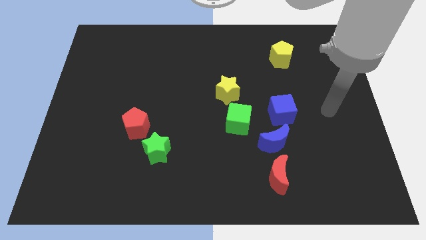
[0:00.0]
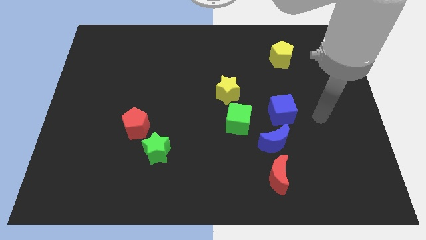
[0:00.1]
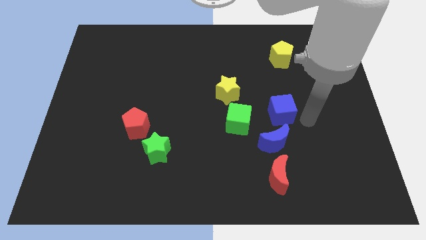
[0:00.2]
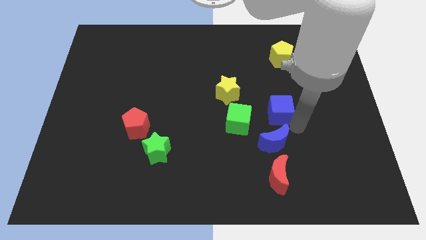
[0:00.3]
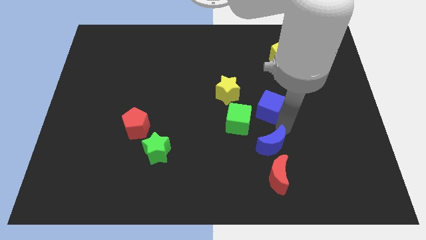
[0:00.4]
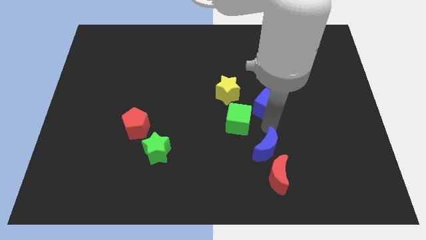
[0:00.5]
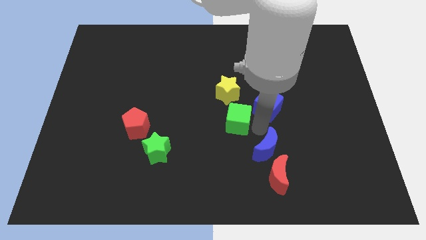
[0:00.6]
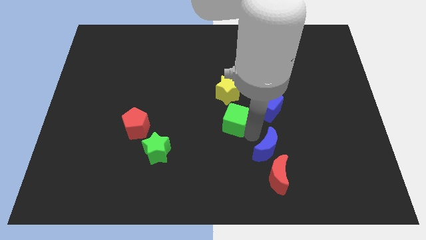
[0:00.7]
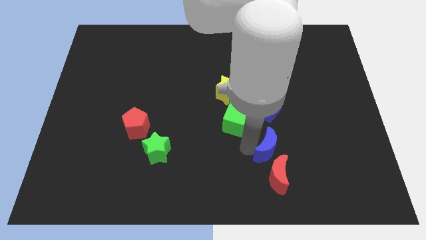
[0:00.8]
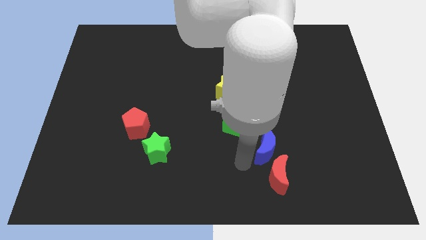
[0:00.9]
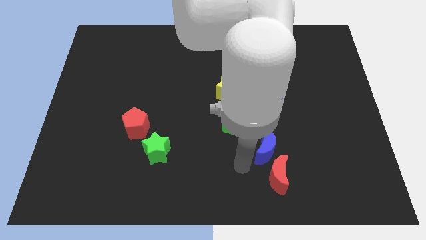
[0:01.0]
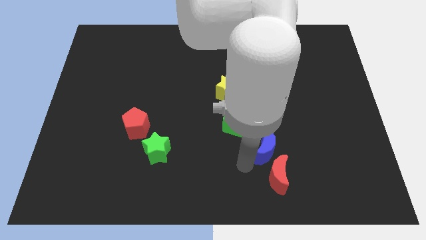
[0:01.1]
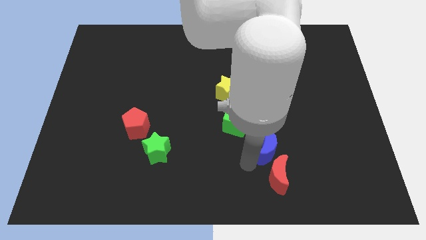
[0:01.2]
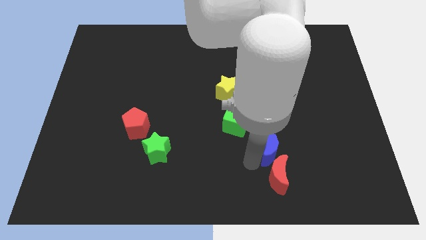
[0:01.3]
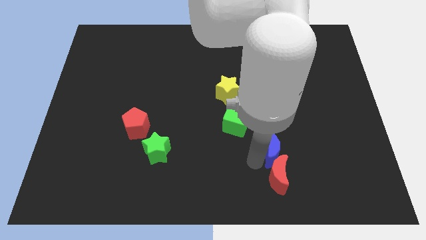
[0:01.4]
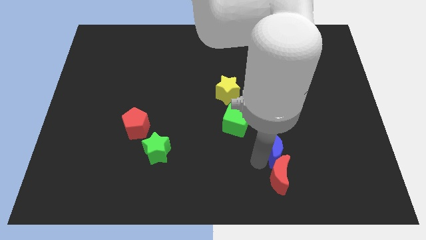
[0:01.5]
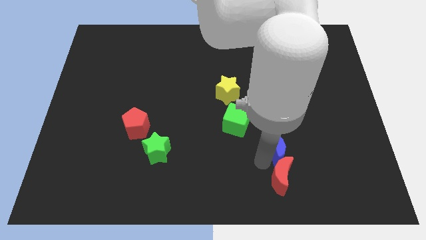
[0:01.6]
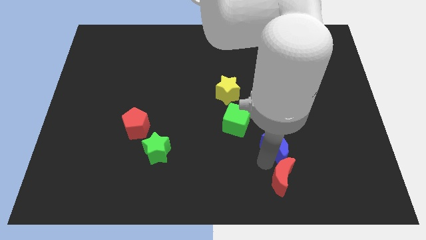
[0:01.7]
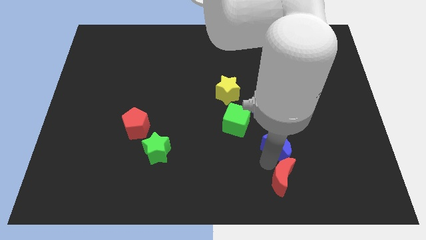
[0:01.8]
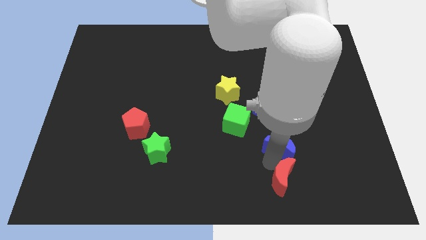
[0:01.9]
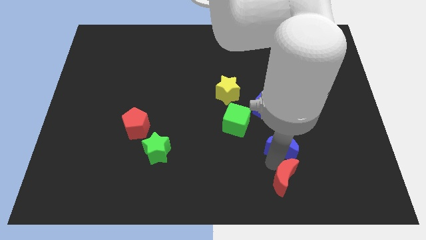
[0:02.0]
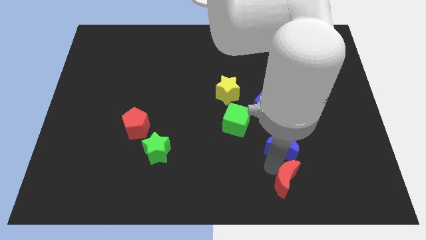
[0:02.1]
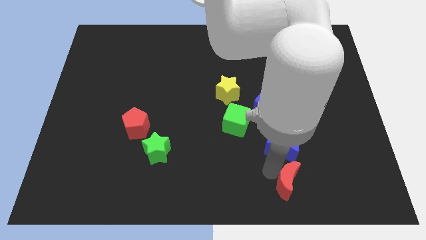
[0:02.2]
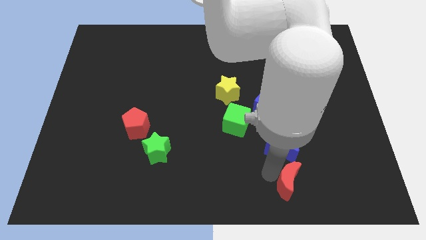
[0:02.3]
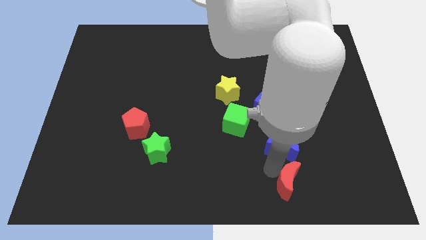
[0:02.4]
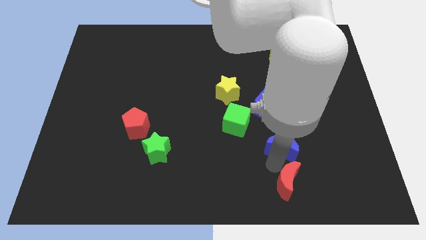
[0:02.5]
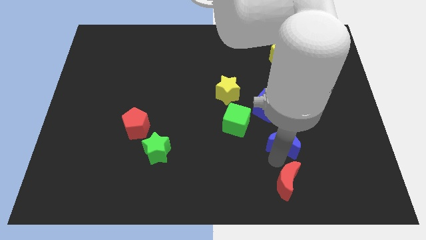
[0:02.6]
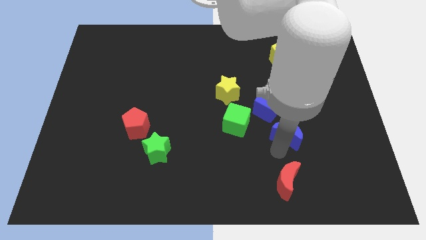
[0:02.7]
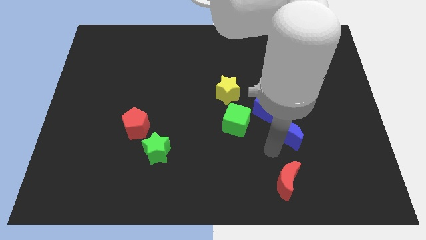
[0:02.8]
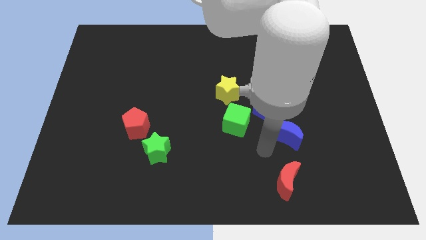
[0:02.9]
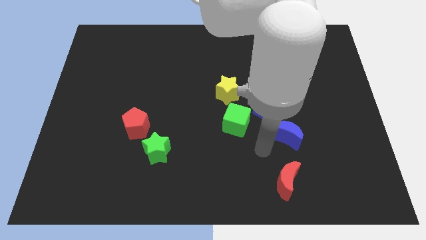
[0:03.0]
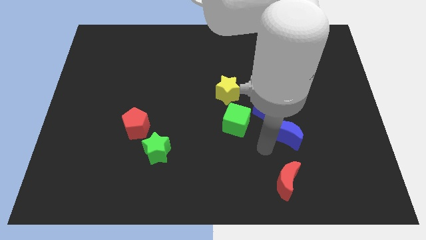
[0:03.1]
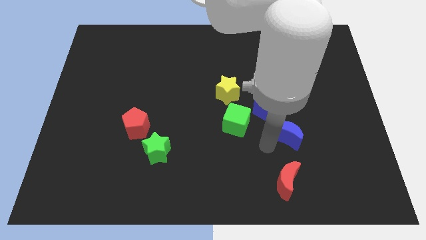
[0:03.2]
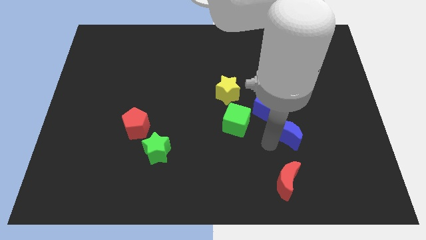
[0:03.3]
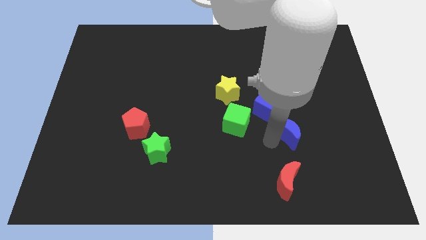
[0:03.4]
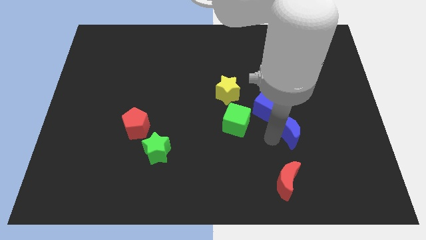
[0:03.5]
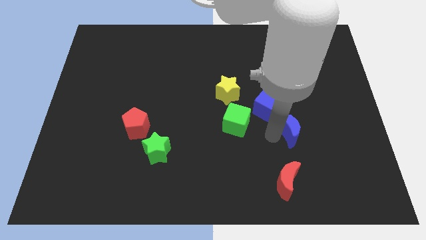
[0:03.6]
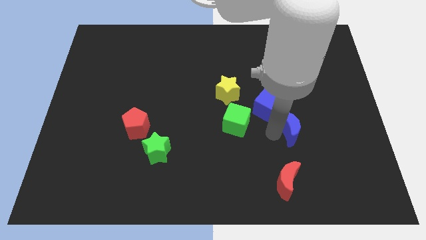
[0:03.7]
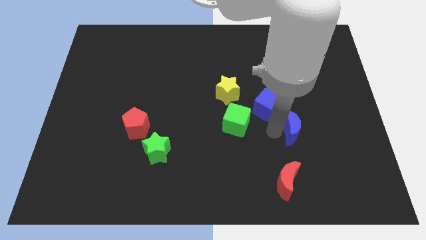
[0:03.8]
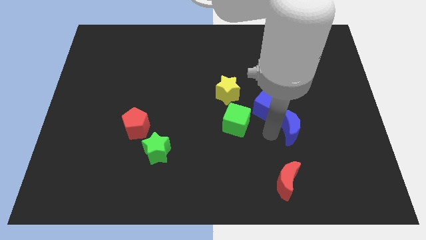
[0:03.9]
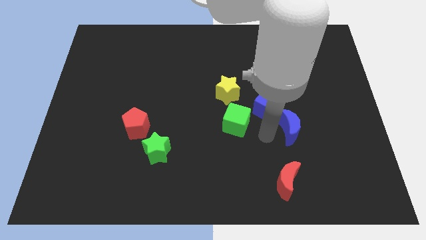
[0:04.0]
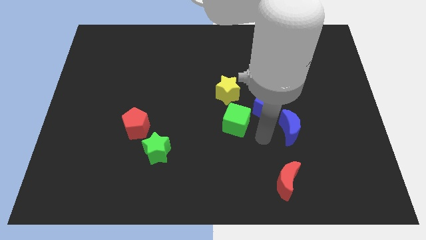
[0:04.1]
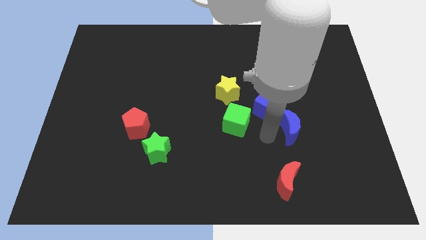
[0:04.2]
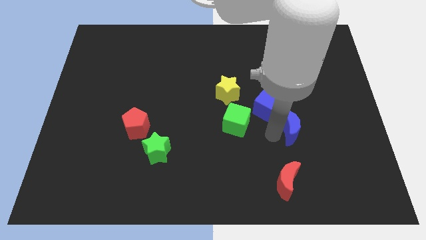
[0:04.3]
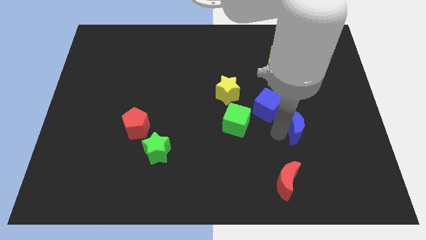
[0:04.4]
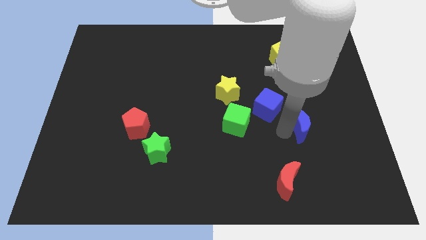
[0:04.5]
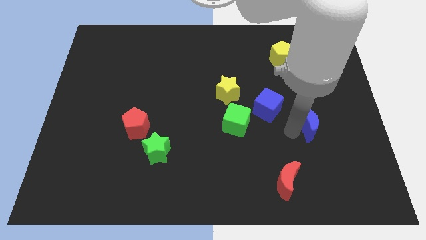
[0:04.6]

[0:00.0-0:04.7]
put the blue moon right of the blue cube

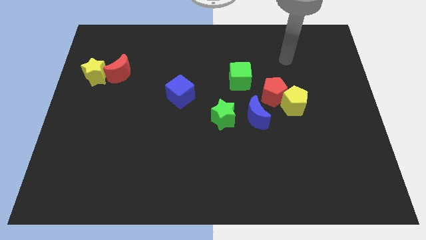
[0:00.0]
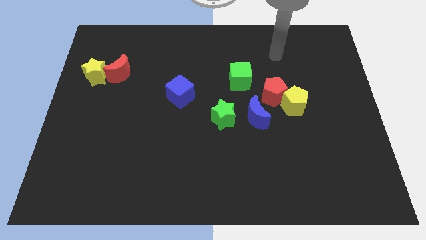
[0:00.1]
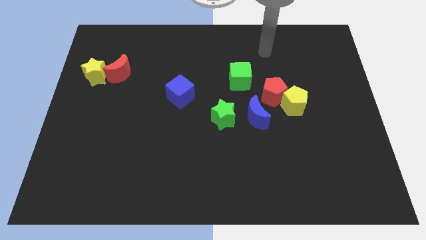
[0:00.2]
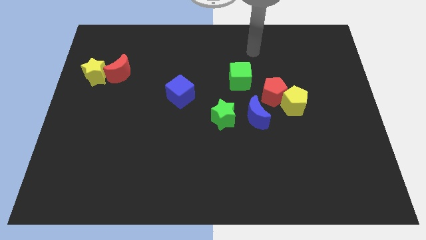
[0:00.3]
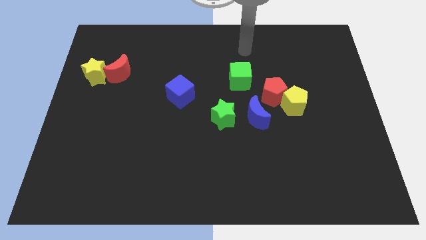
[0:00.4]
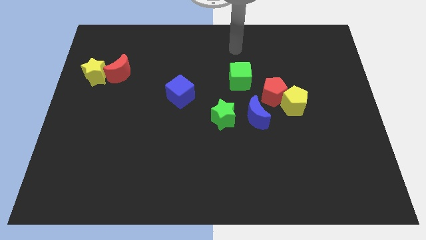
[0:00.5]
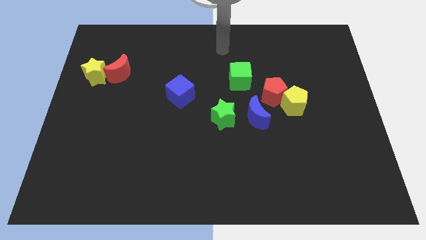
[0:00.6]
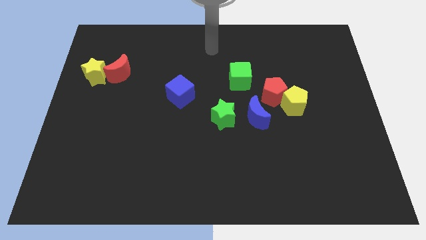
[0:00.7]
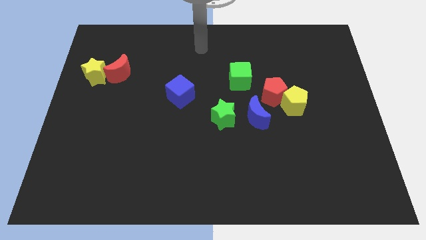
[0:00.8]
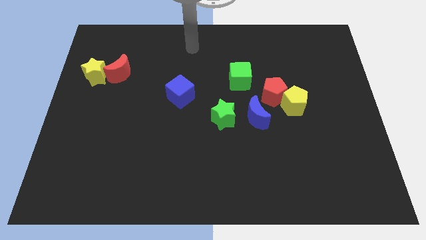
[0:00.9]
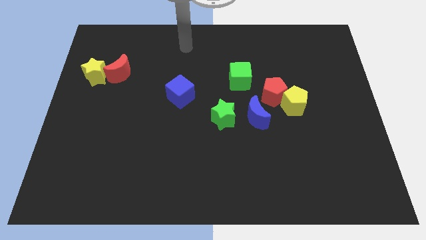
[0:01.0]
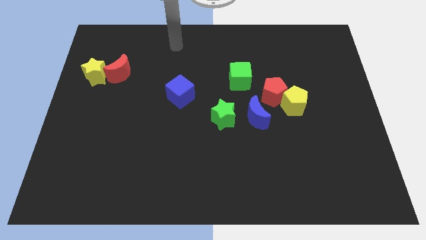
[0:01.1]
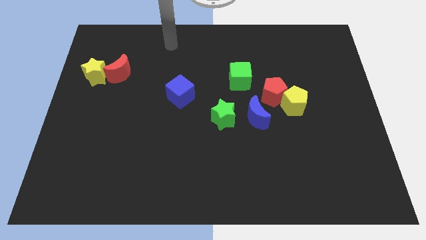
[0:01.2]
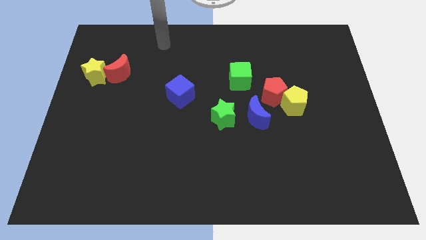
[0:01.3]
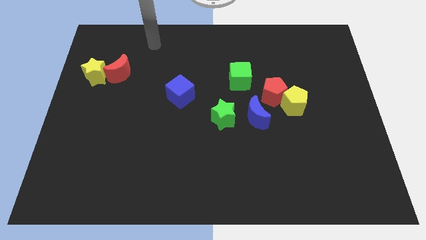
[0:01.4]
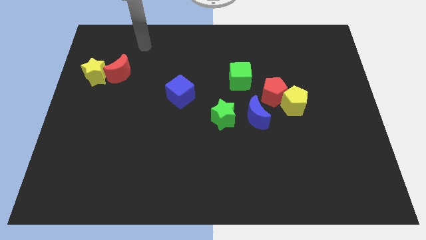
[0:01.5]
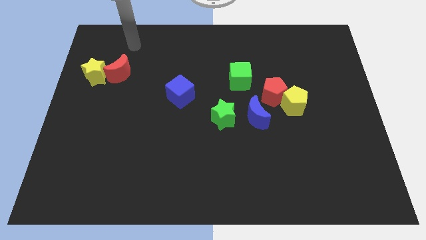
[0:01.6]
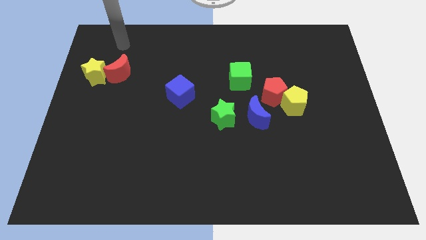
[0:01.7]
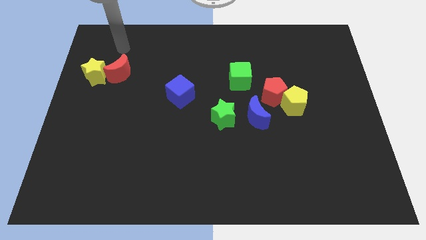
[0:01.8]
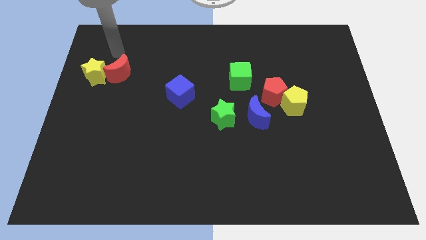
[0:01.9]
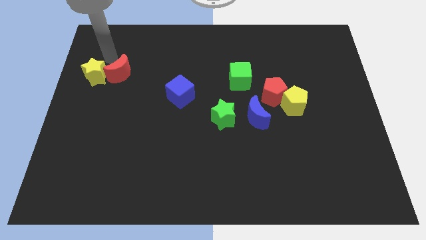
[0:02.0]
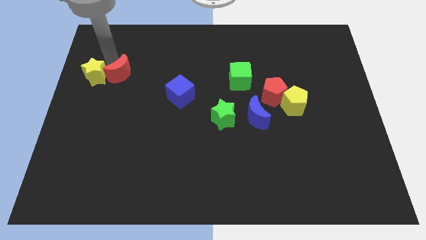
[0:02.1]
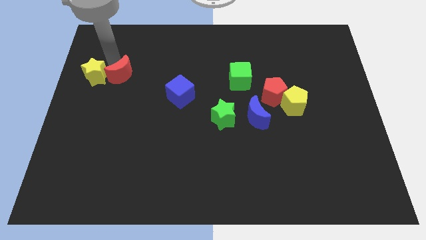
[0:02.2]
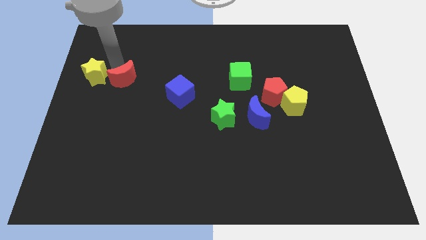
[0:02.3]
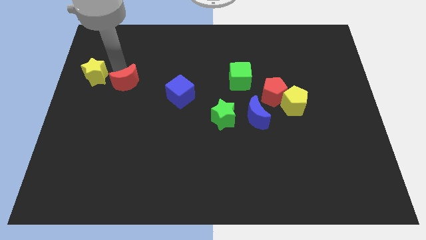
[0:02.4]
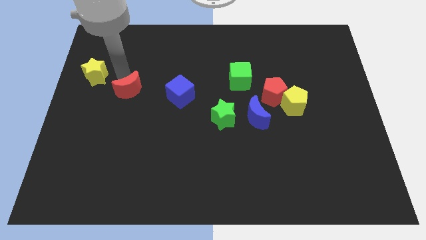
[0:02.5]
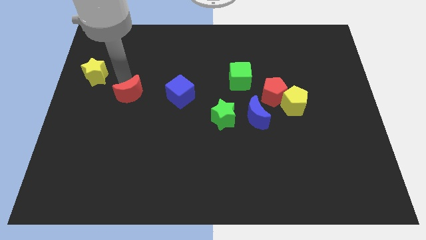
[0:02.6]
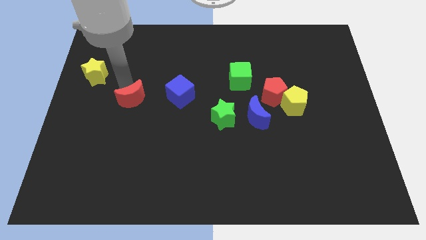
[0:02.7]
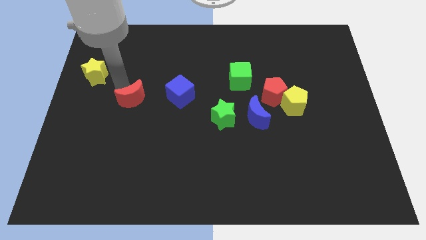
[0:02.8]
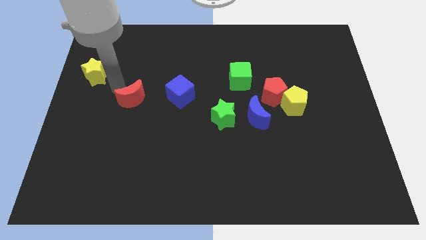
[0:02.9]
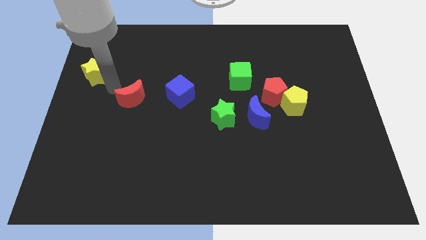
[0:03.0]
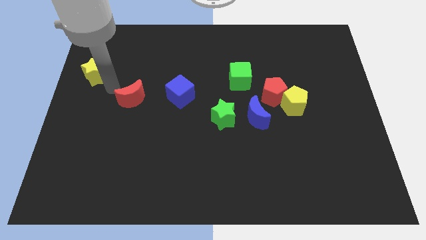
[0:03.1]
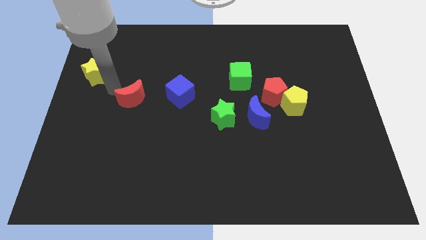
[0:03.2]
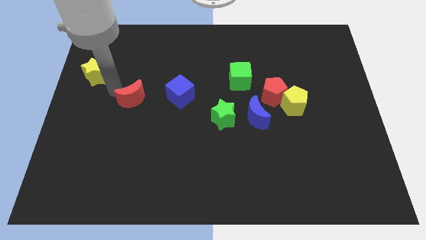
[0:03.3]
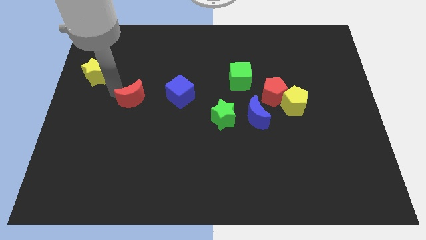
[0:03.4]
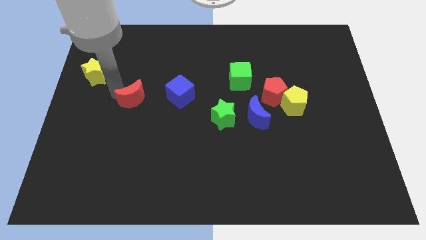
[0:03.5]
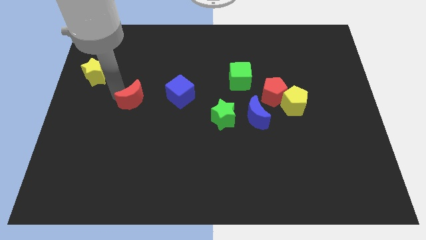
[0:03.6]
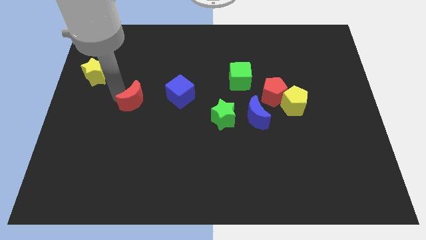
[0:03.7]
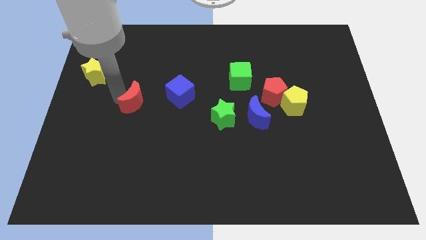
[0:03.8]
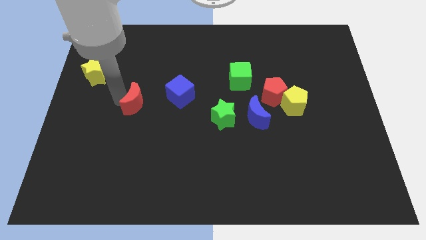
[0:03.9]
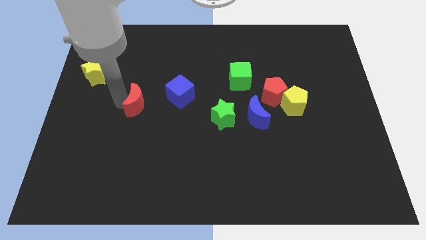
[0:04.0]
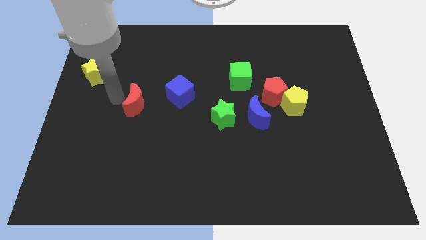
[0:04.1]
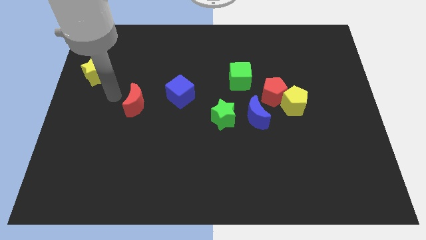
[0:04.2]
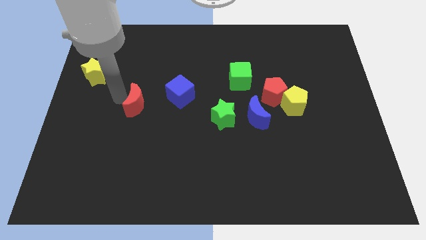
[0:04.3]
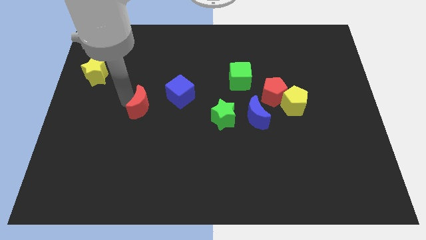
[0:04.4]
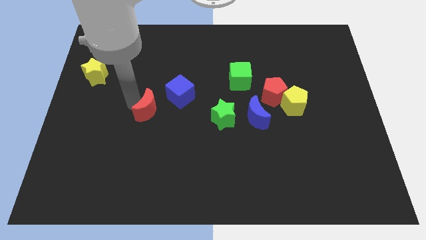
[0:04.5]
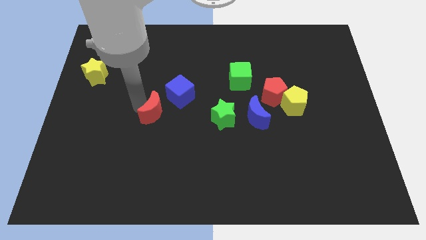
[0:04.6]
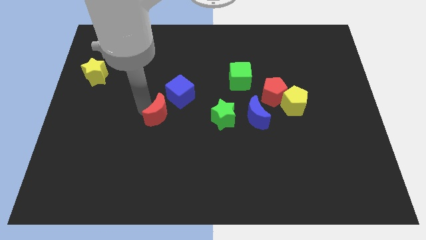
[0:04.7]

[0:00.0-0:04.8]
put the red moon to the bottom side of the blue cube
